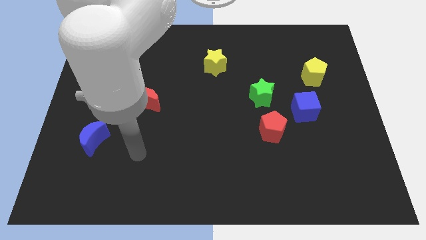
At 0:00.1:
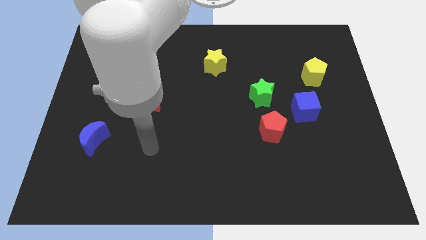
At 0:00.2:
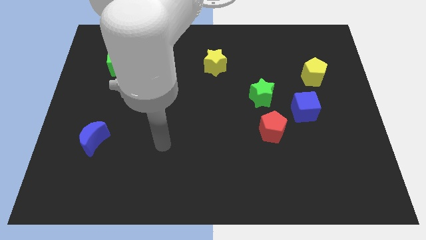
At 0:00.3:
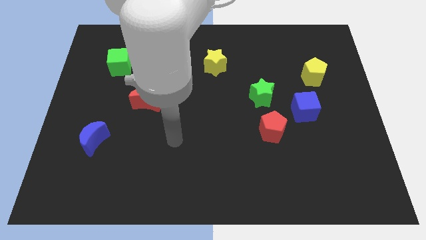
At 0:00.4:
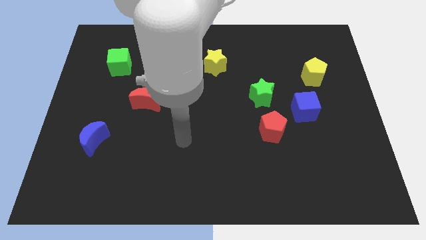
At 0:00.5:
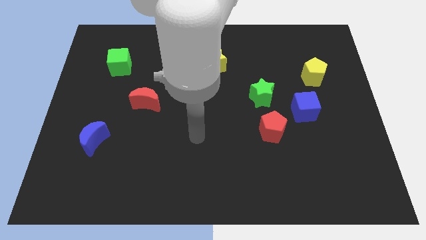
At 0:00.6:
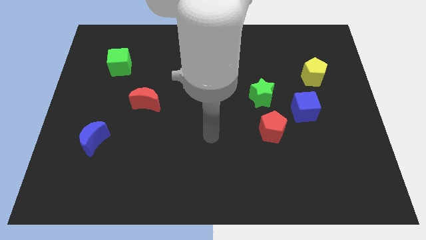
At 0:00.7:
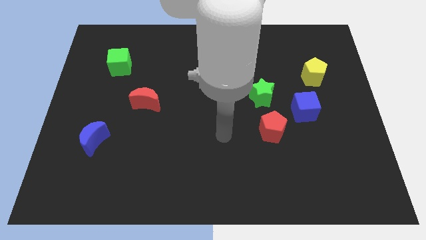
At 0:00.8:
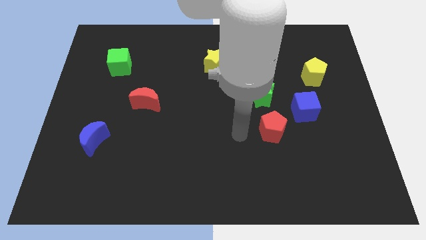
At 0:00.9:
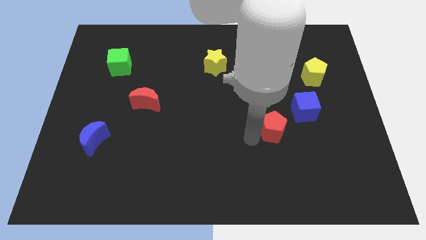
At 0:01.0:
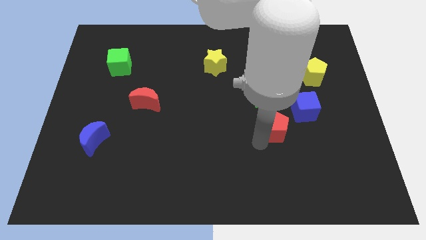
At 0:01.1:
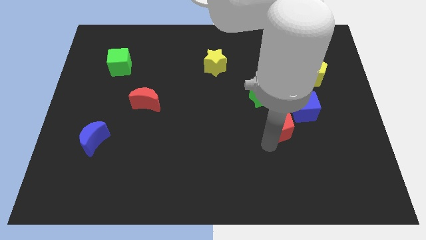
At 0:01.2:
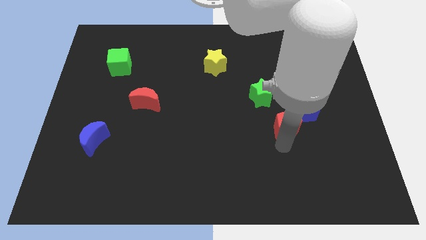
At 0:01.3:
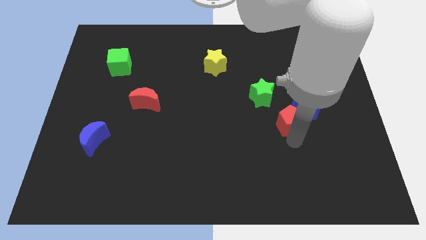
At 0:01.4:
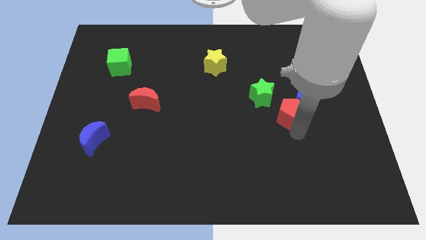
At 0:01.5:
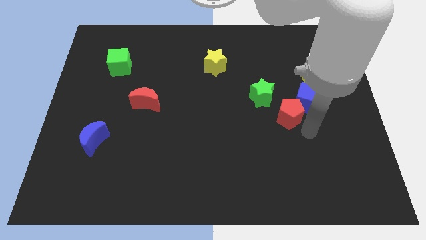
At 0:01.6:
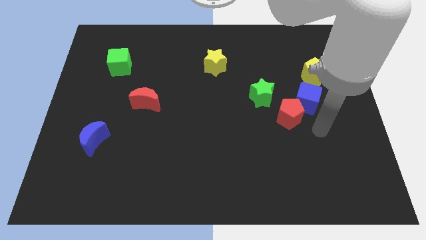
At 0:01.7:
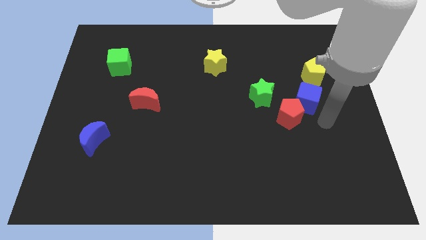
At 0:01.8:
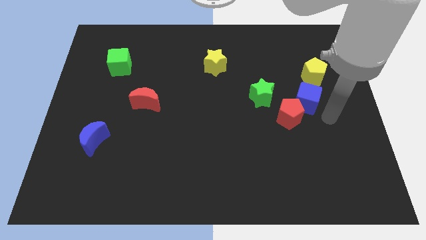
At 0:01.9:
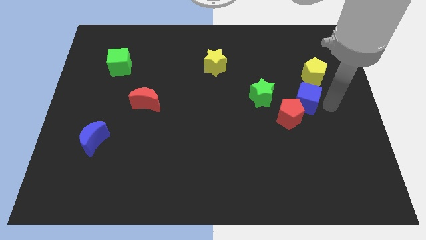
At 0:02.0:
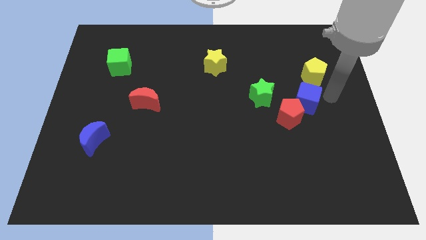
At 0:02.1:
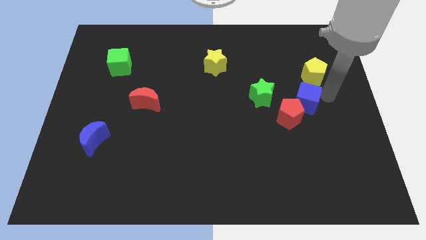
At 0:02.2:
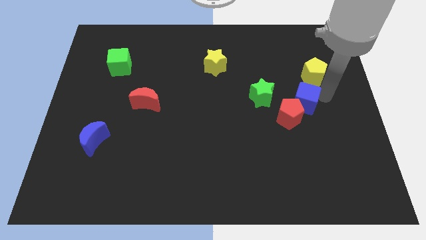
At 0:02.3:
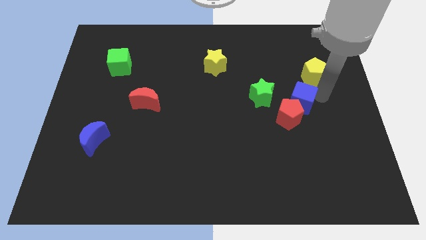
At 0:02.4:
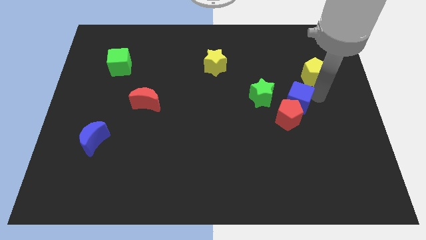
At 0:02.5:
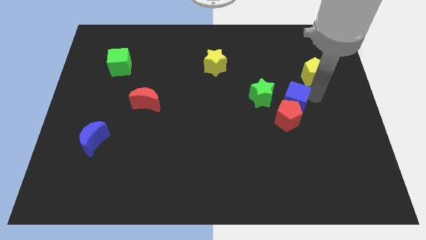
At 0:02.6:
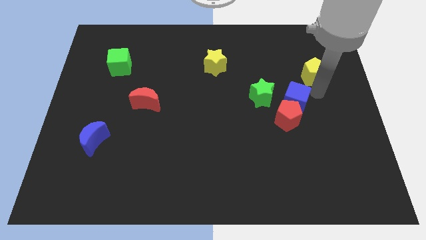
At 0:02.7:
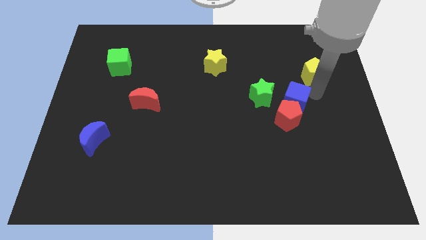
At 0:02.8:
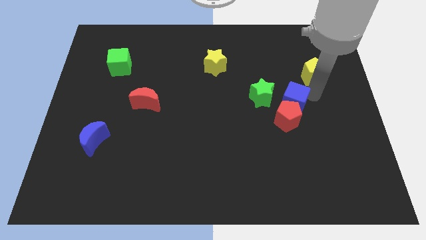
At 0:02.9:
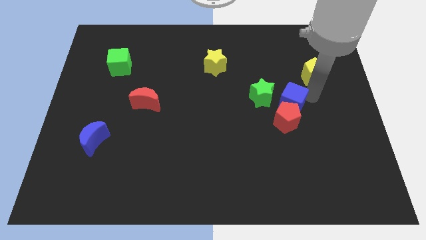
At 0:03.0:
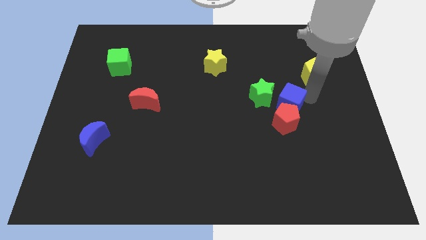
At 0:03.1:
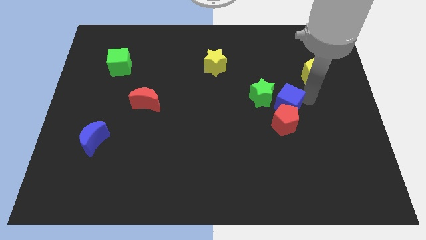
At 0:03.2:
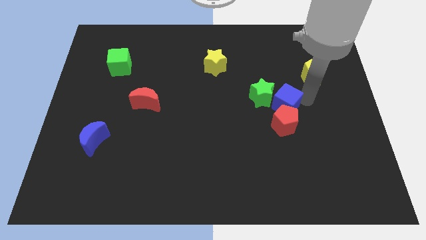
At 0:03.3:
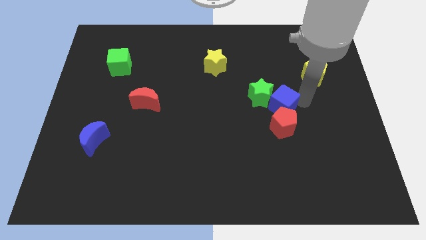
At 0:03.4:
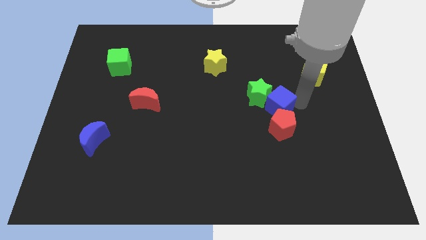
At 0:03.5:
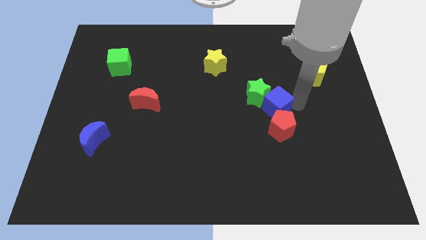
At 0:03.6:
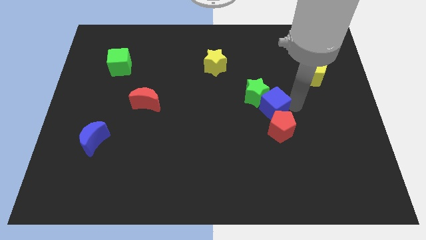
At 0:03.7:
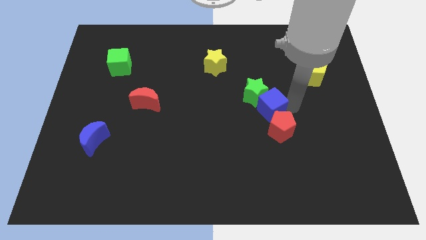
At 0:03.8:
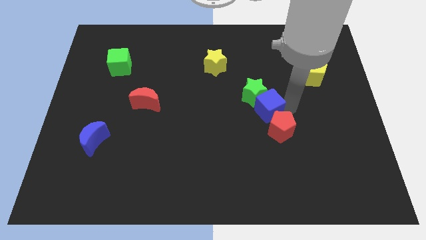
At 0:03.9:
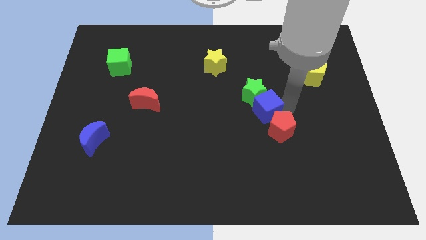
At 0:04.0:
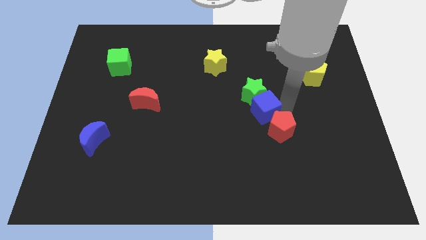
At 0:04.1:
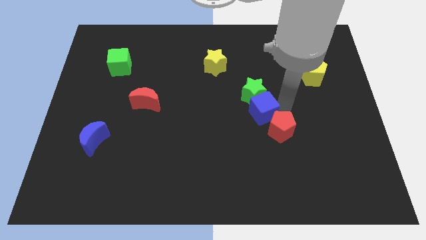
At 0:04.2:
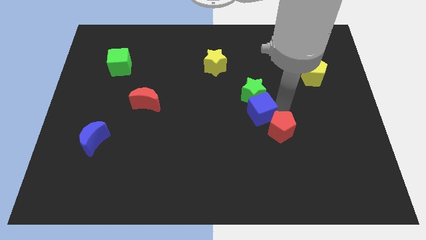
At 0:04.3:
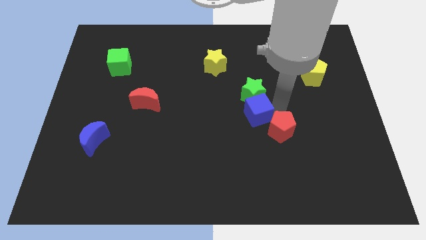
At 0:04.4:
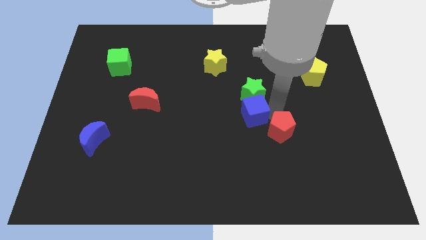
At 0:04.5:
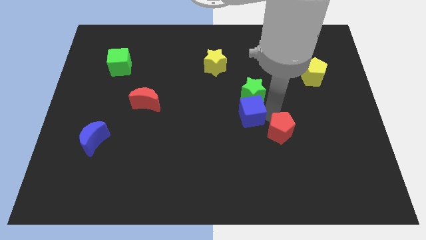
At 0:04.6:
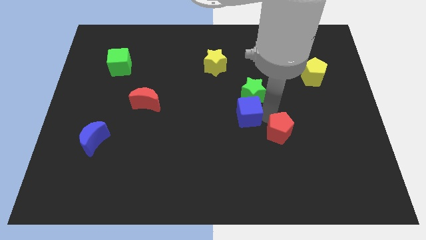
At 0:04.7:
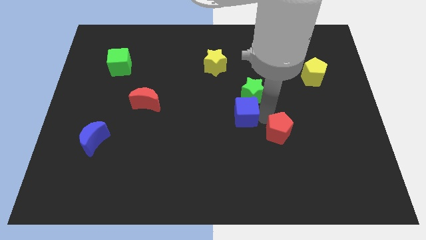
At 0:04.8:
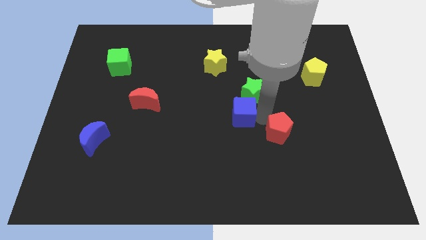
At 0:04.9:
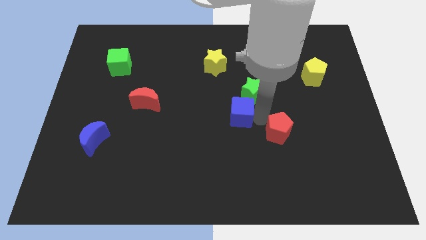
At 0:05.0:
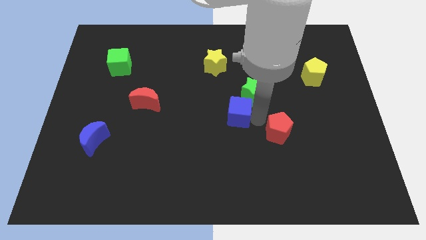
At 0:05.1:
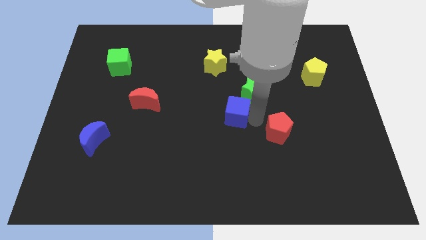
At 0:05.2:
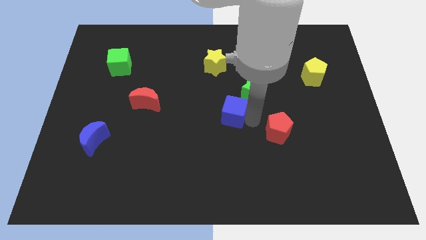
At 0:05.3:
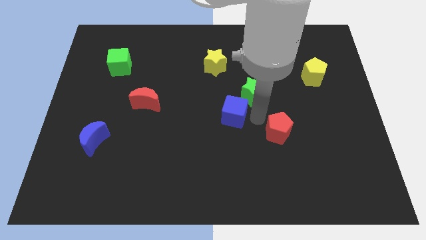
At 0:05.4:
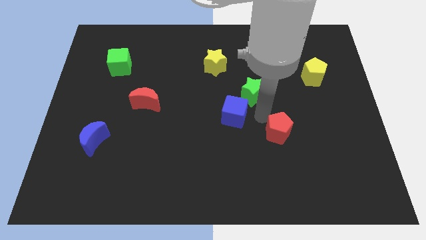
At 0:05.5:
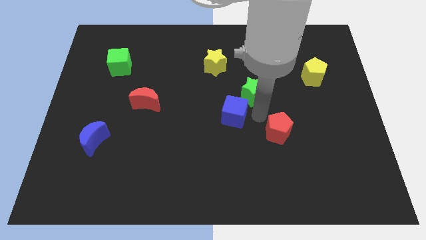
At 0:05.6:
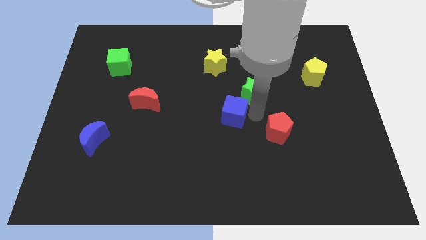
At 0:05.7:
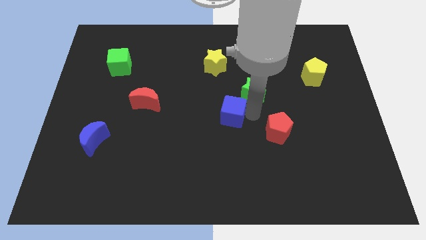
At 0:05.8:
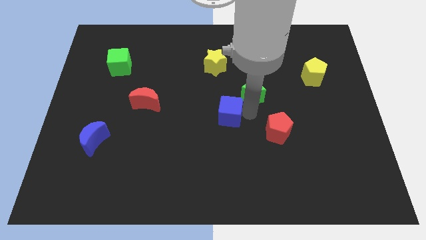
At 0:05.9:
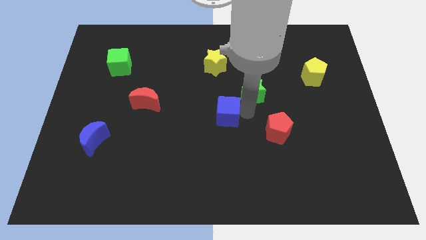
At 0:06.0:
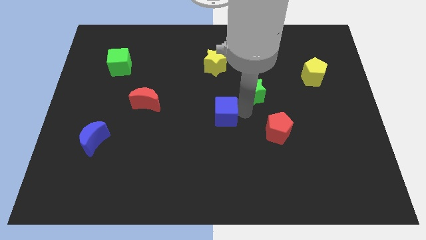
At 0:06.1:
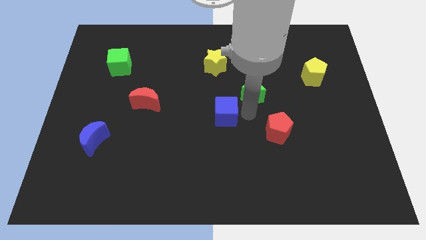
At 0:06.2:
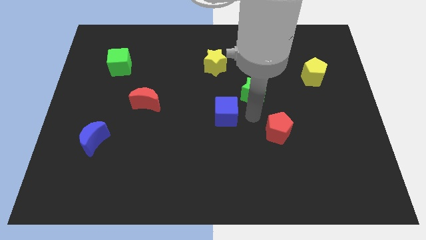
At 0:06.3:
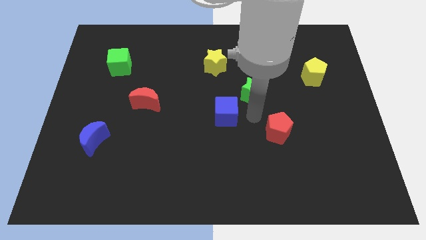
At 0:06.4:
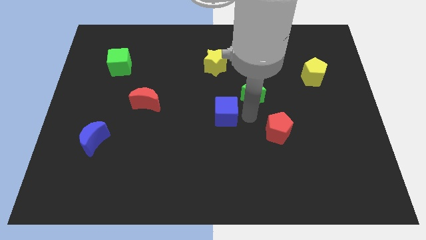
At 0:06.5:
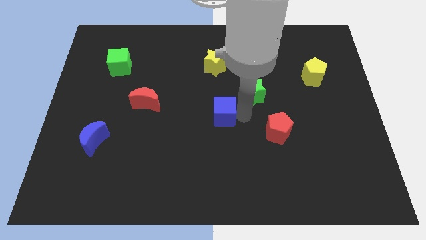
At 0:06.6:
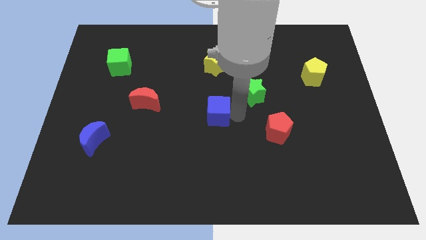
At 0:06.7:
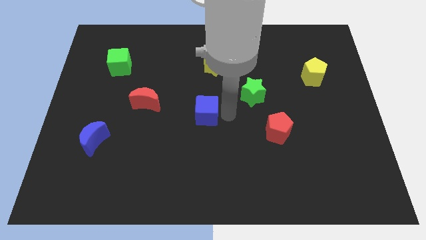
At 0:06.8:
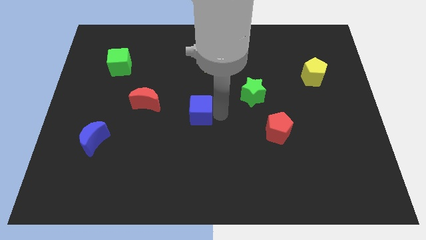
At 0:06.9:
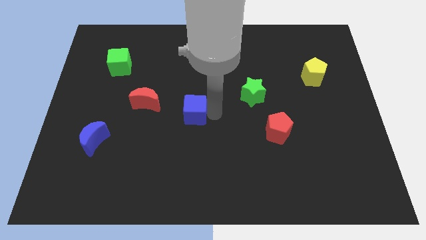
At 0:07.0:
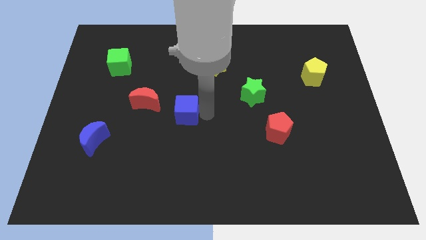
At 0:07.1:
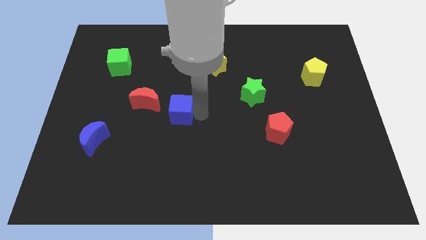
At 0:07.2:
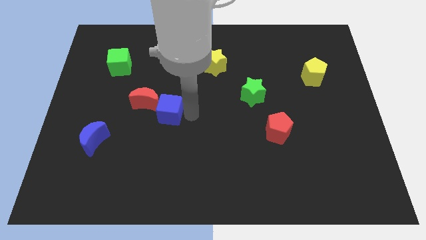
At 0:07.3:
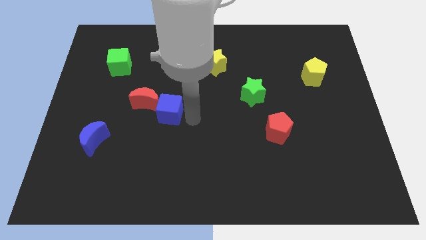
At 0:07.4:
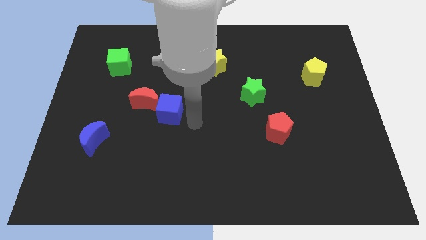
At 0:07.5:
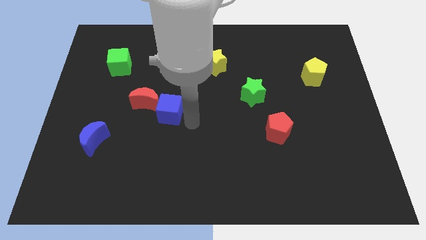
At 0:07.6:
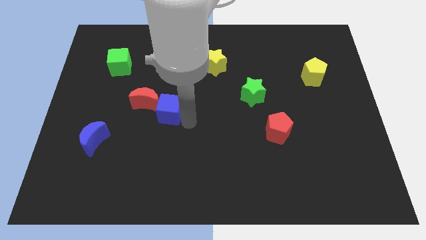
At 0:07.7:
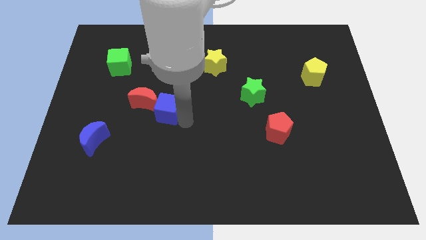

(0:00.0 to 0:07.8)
slide the blue cube next to the red moon
